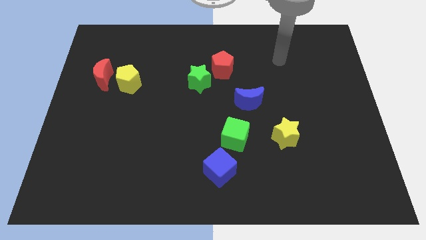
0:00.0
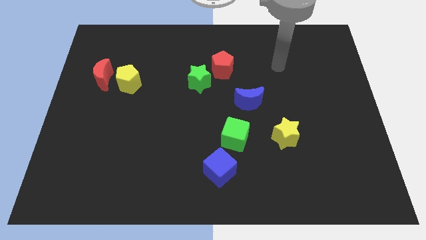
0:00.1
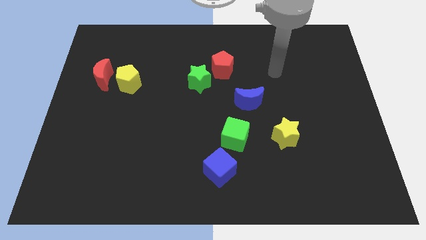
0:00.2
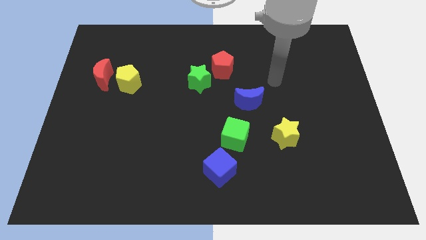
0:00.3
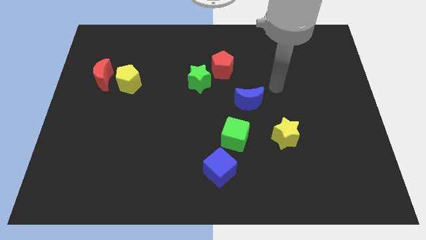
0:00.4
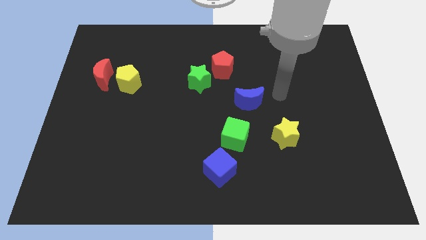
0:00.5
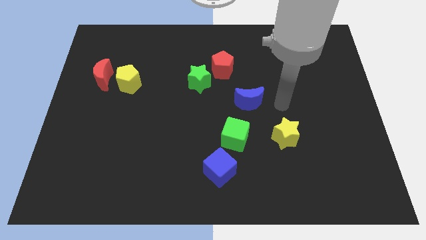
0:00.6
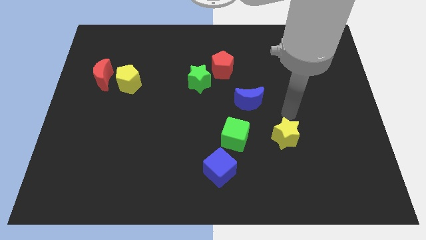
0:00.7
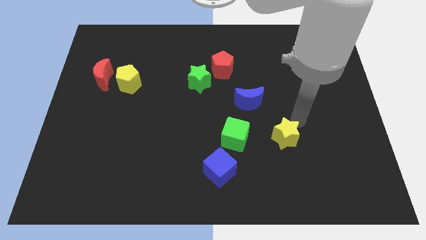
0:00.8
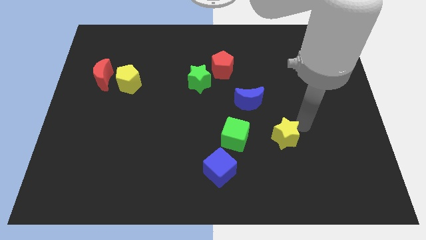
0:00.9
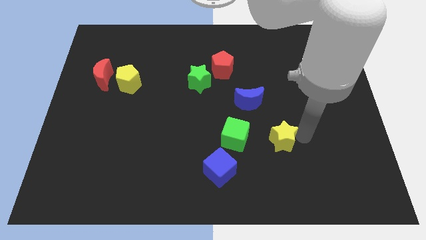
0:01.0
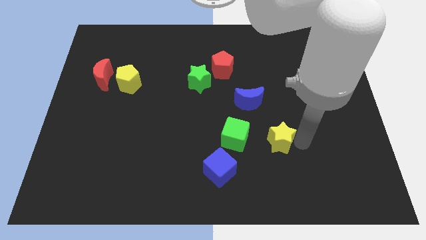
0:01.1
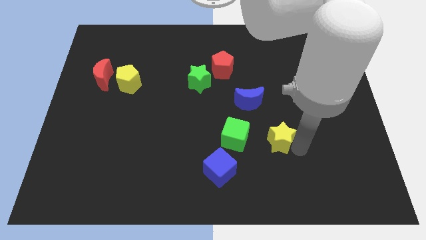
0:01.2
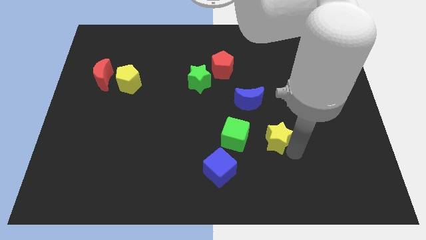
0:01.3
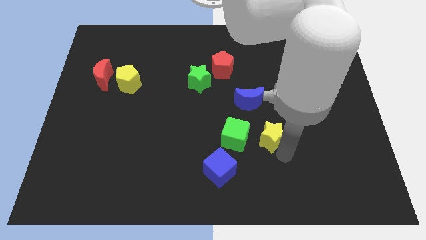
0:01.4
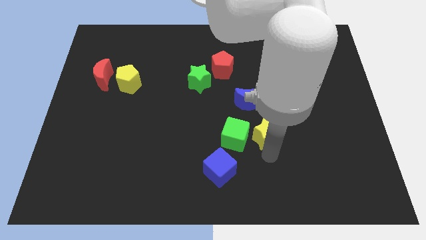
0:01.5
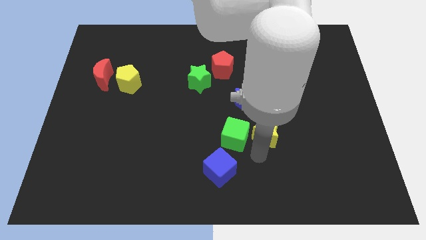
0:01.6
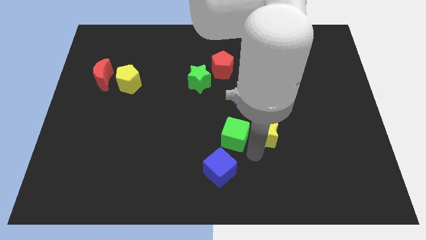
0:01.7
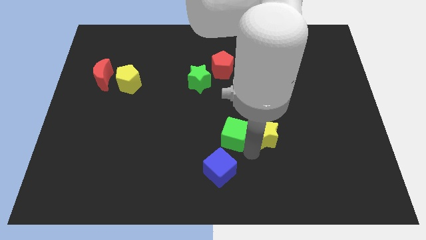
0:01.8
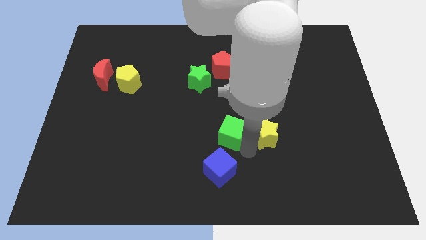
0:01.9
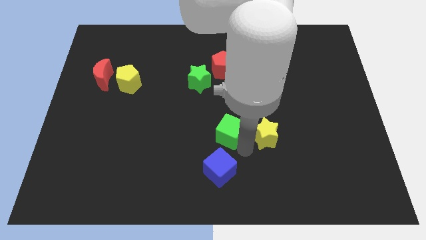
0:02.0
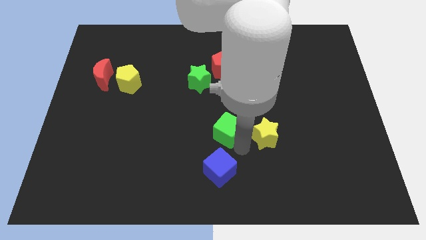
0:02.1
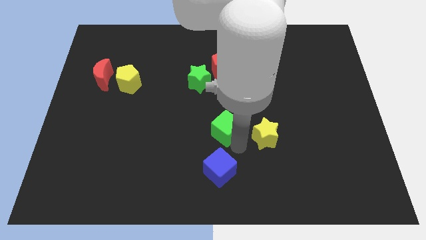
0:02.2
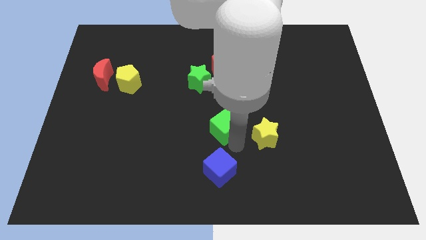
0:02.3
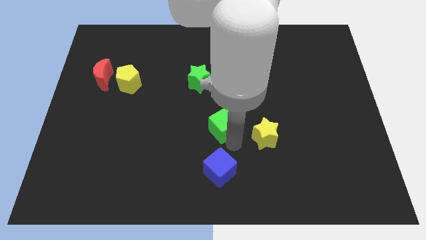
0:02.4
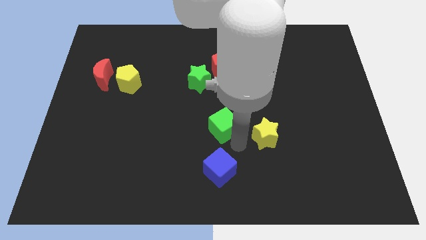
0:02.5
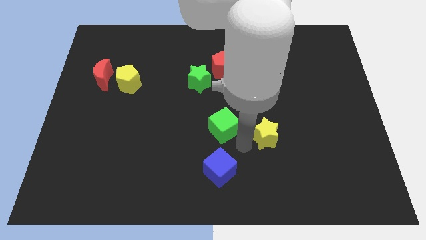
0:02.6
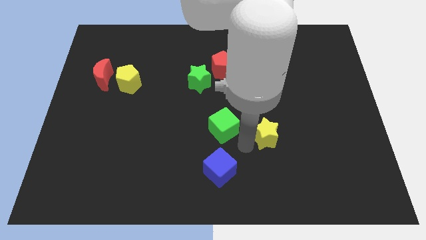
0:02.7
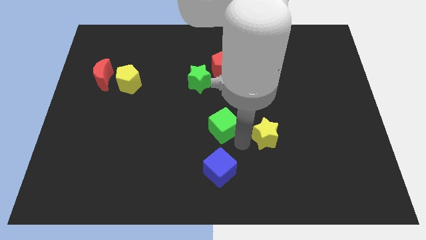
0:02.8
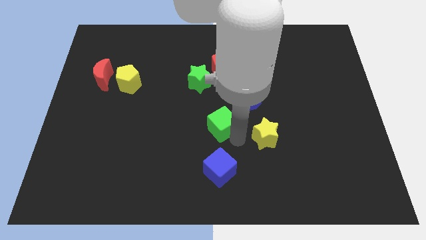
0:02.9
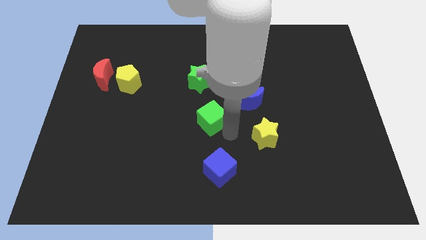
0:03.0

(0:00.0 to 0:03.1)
move the green cube a little bit diagonally up and left

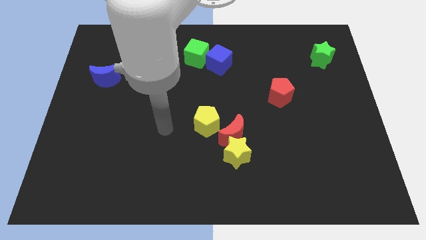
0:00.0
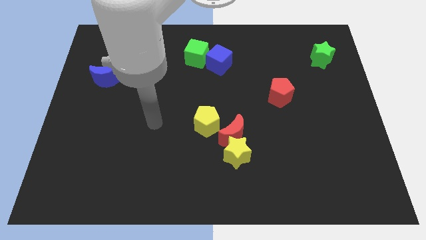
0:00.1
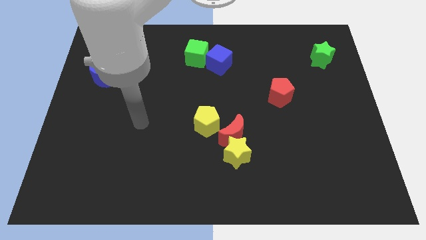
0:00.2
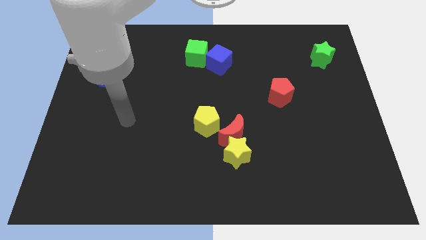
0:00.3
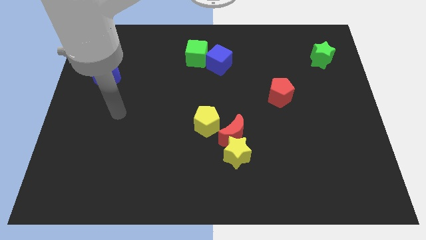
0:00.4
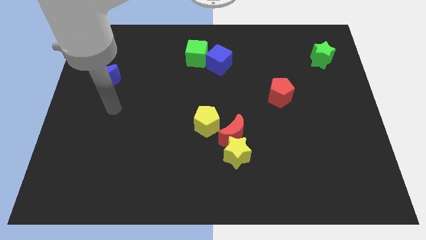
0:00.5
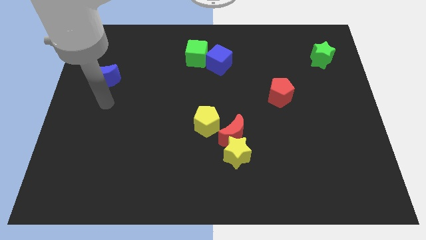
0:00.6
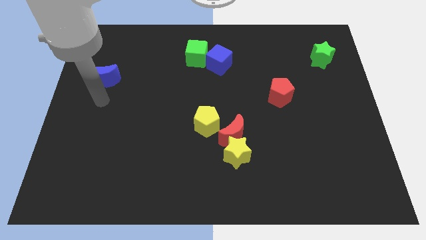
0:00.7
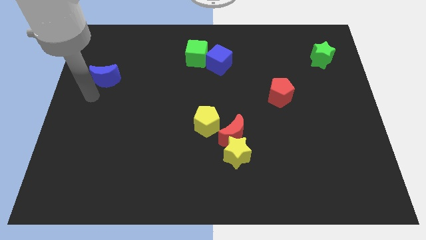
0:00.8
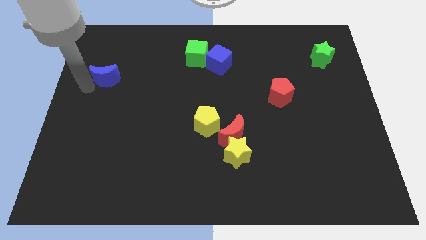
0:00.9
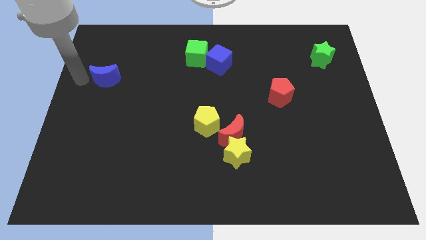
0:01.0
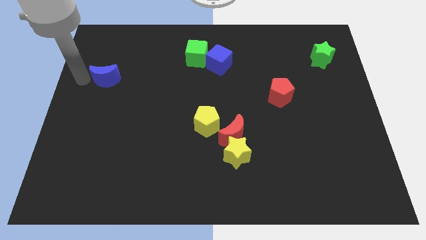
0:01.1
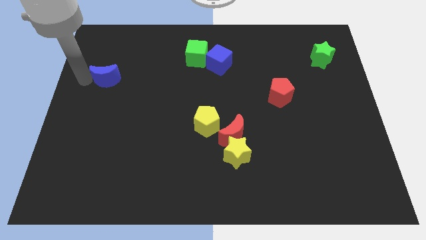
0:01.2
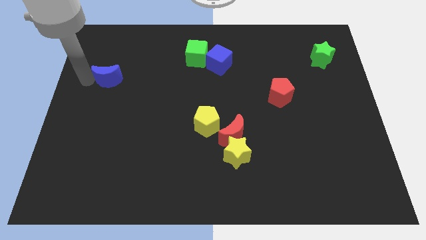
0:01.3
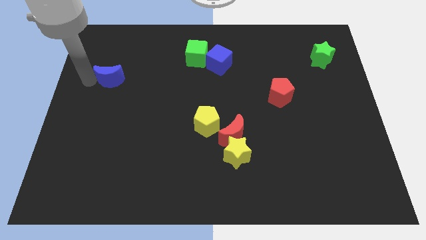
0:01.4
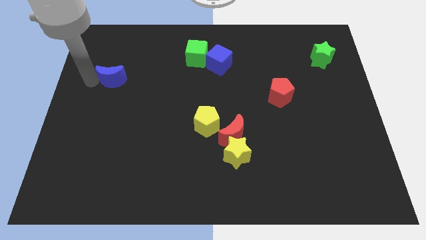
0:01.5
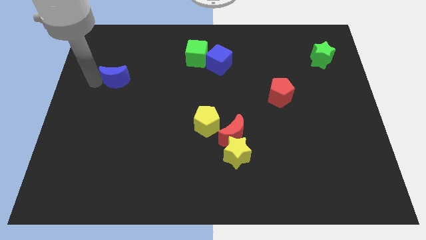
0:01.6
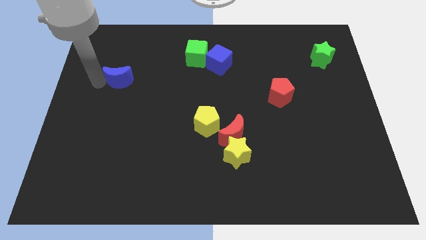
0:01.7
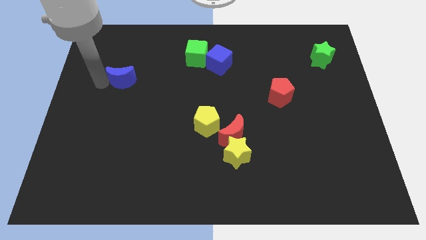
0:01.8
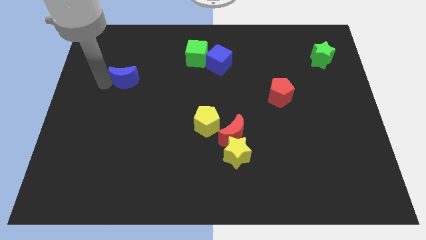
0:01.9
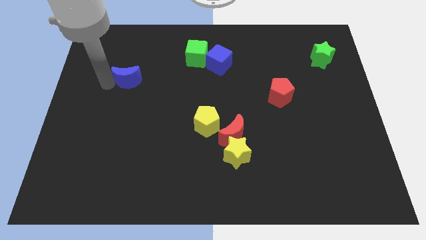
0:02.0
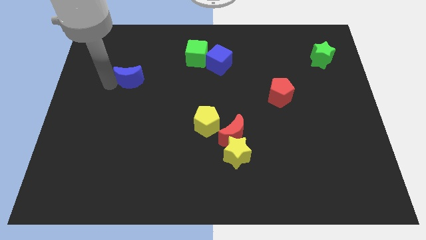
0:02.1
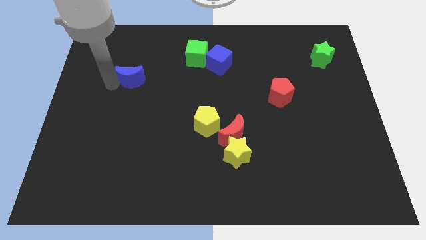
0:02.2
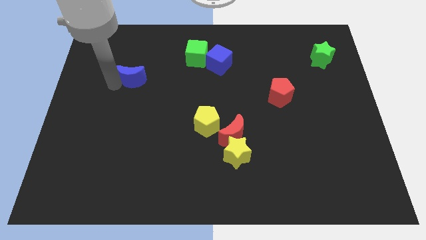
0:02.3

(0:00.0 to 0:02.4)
push the blue moon right a bit

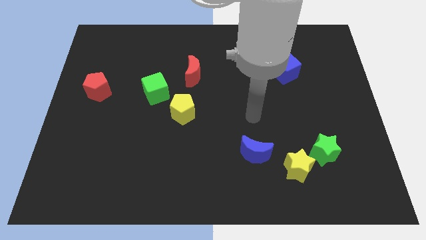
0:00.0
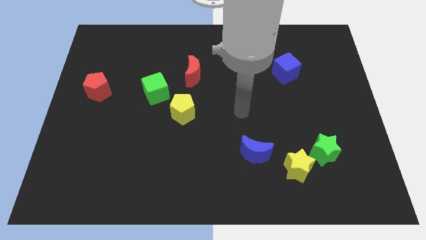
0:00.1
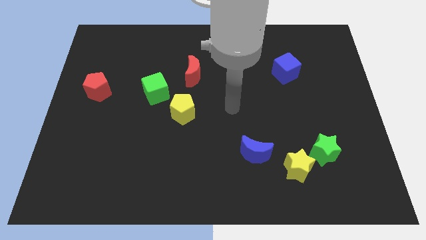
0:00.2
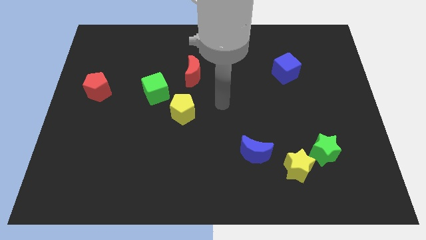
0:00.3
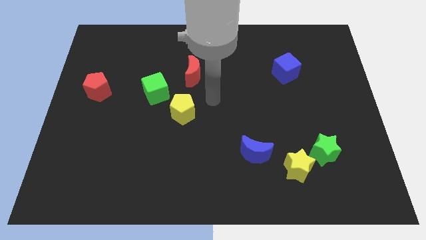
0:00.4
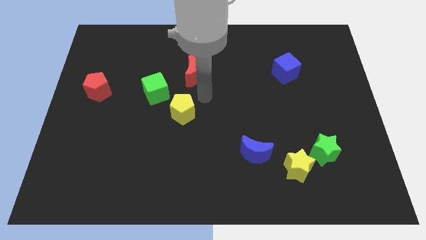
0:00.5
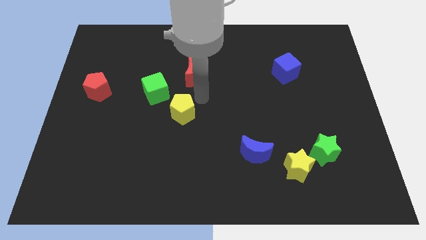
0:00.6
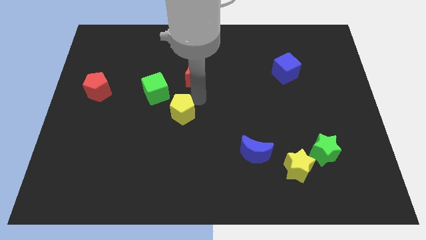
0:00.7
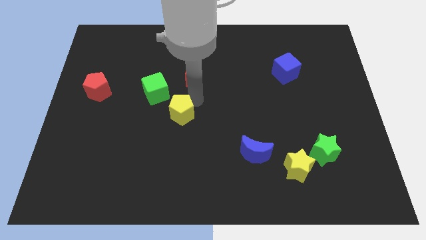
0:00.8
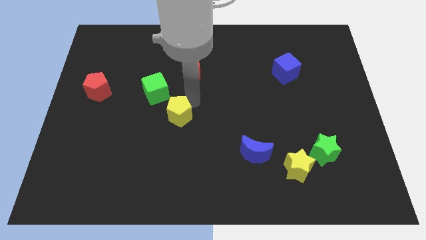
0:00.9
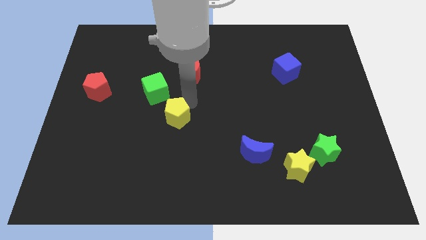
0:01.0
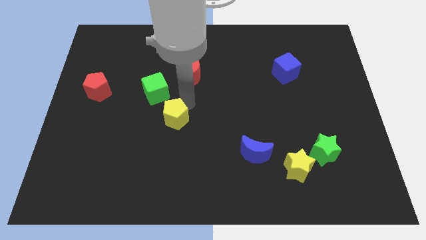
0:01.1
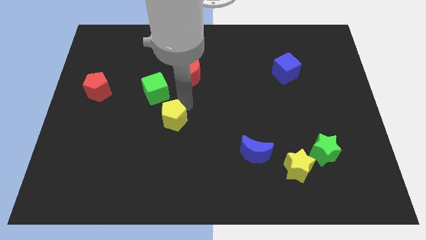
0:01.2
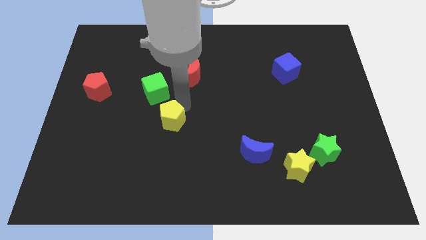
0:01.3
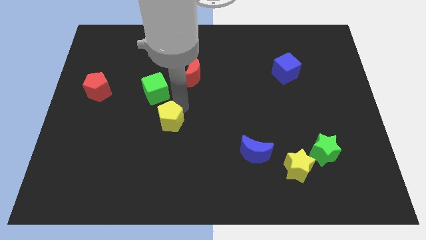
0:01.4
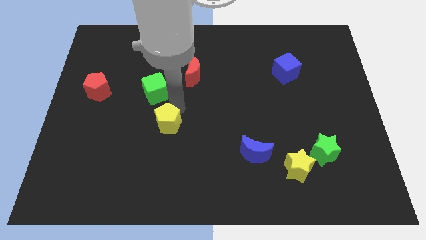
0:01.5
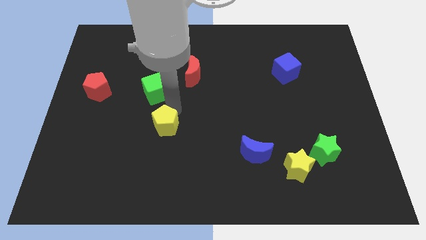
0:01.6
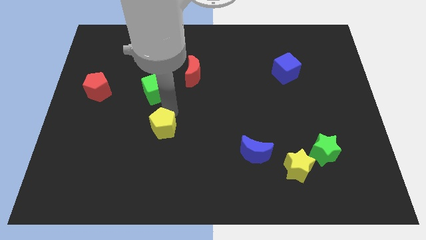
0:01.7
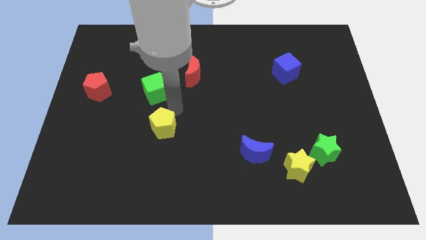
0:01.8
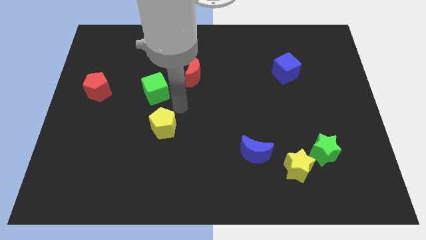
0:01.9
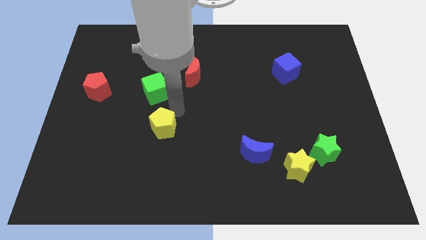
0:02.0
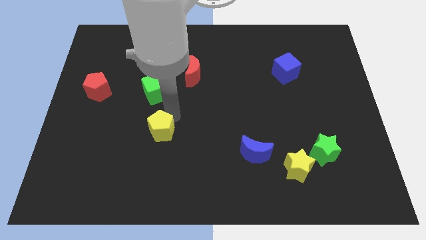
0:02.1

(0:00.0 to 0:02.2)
slide the yellow pentagon slightly downwards and to the left

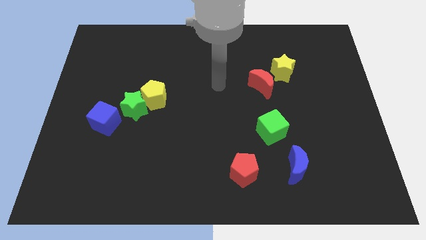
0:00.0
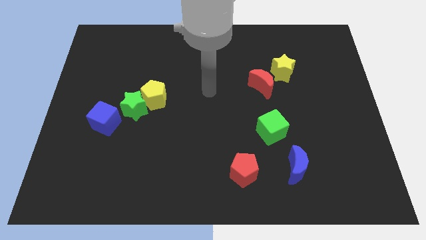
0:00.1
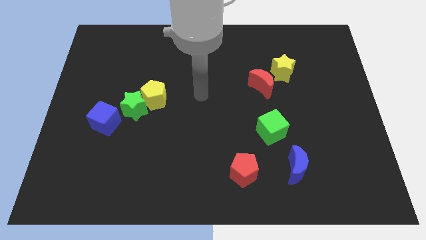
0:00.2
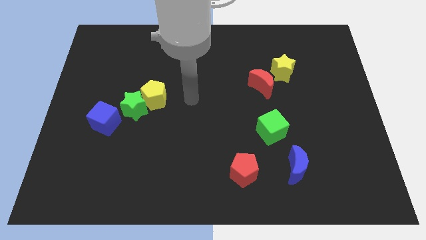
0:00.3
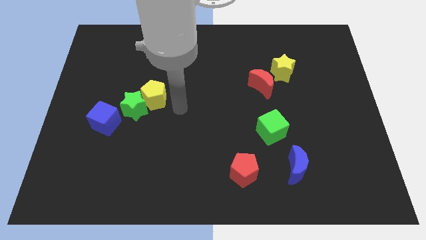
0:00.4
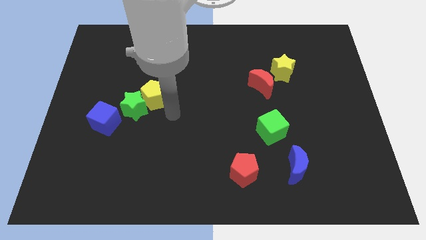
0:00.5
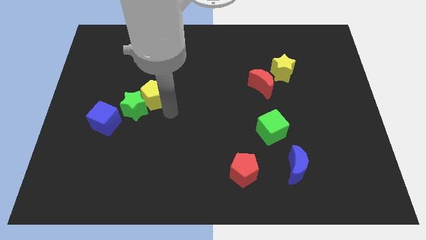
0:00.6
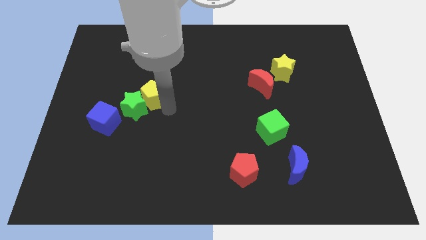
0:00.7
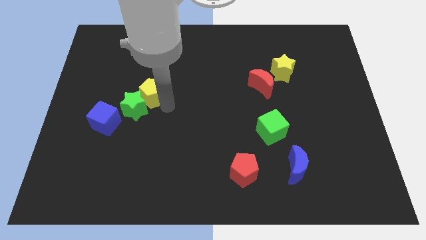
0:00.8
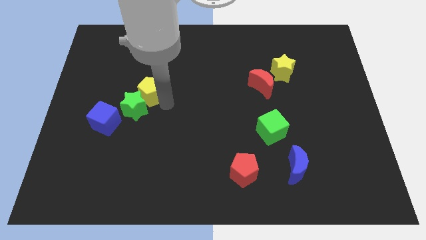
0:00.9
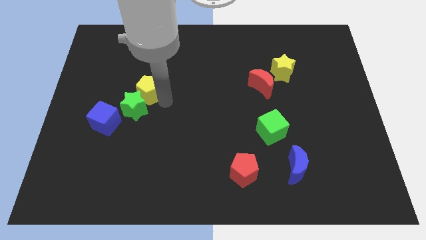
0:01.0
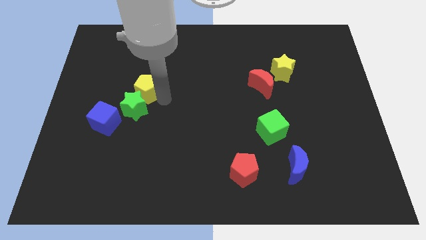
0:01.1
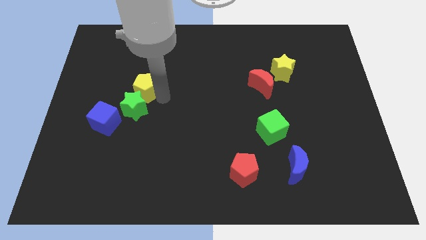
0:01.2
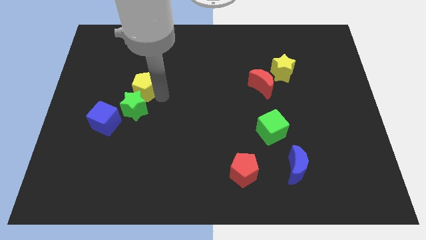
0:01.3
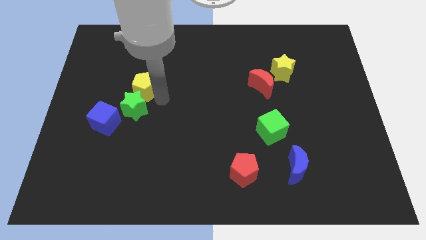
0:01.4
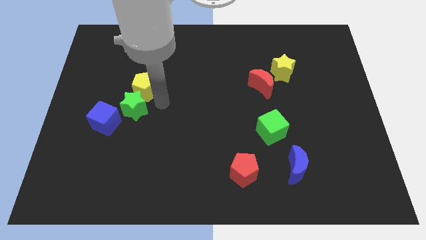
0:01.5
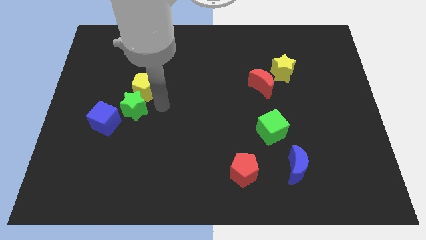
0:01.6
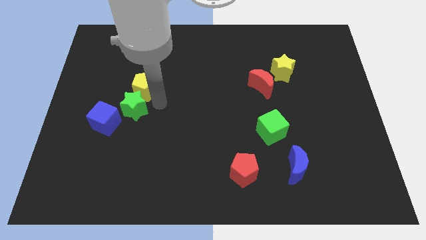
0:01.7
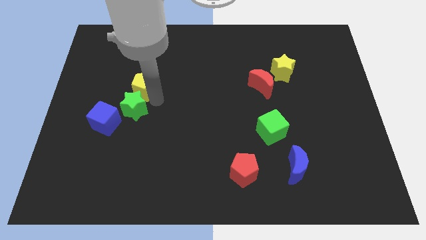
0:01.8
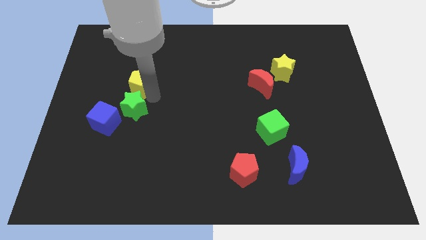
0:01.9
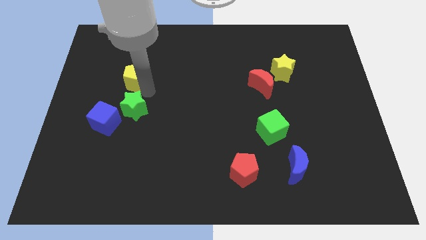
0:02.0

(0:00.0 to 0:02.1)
move the yellow pentagon somewhat upwards and to the left
